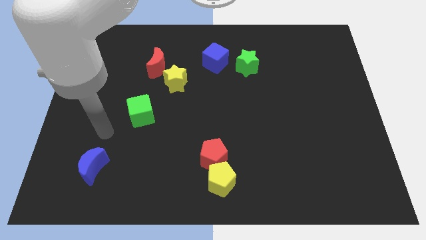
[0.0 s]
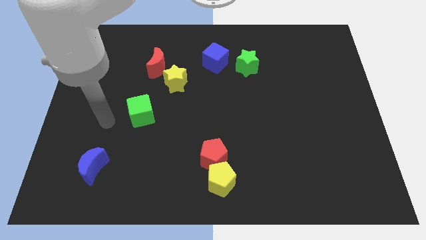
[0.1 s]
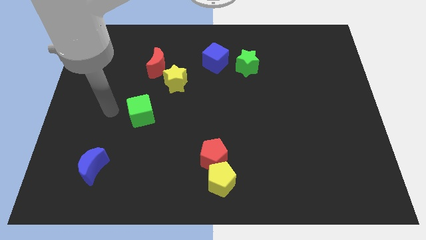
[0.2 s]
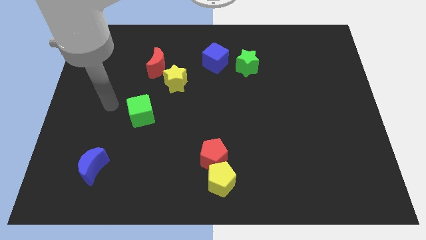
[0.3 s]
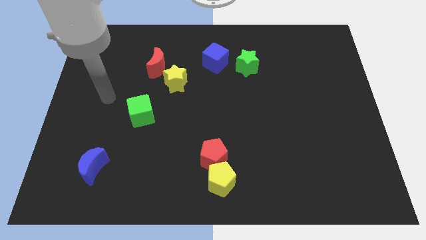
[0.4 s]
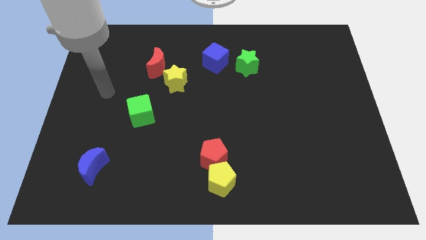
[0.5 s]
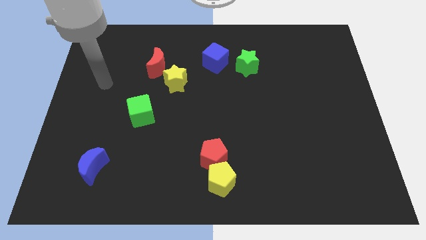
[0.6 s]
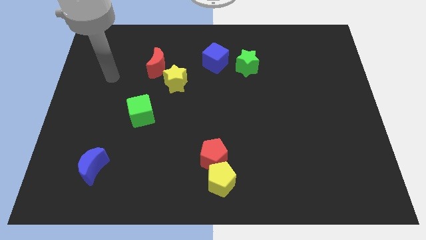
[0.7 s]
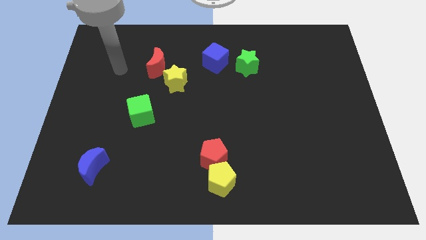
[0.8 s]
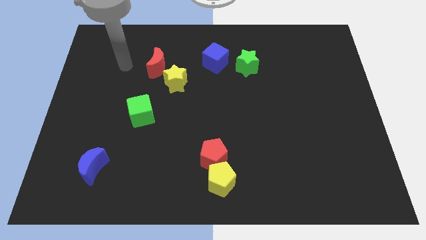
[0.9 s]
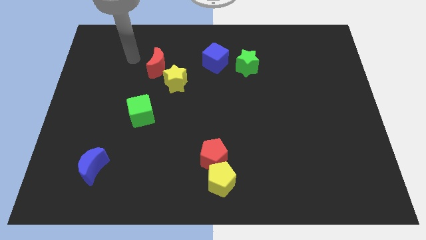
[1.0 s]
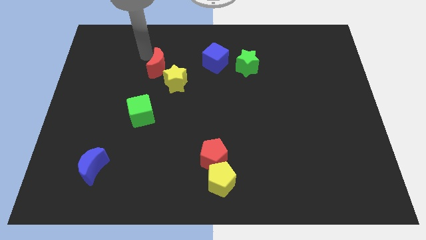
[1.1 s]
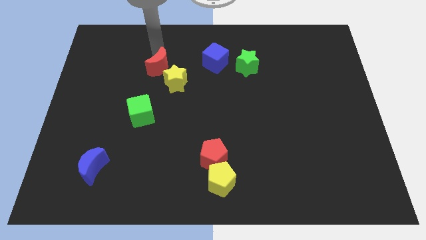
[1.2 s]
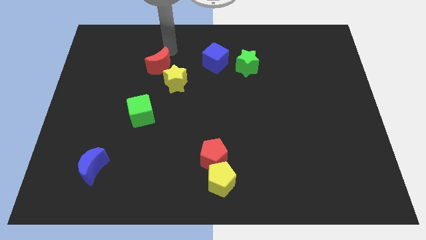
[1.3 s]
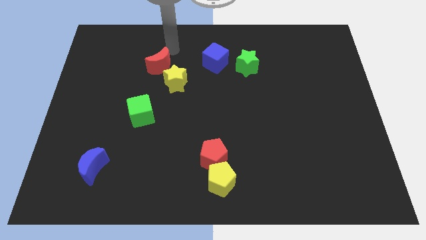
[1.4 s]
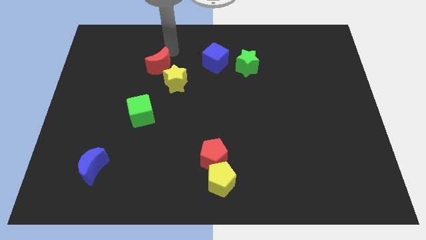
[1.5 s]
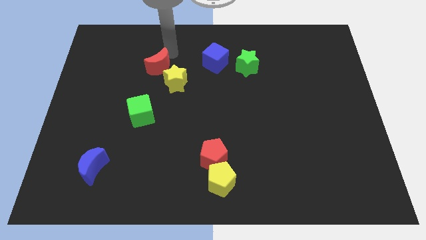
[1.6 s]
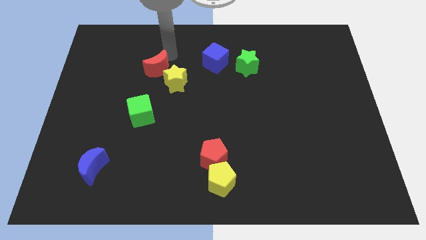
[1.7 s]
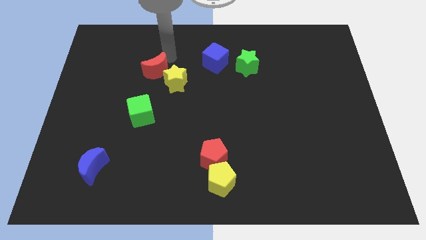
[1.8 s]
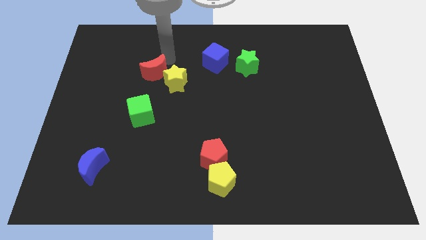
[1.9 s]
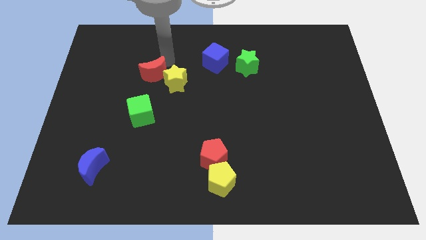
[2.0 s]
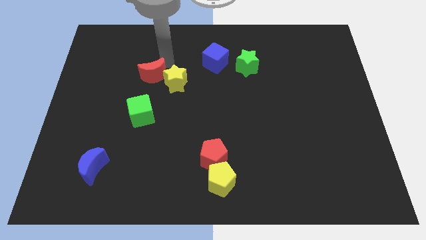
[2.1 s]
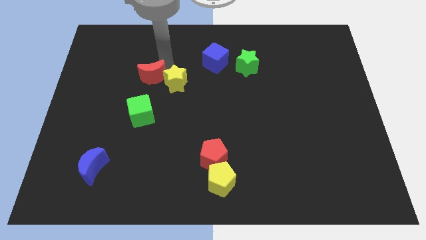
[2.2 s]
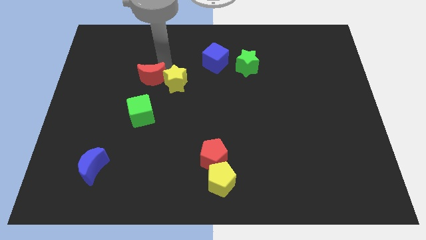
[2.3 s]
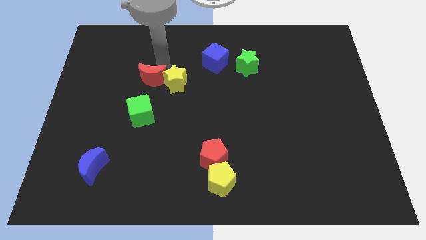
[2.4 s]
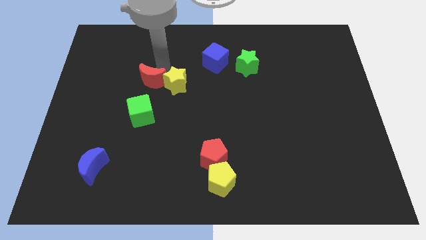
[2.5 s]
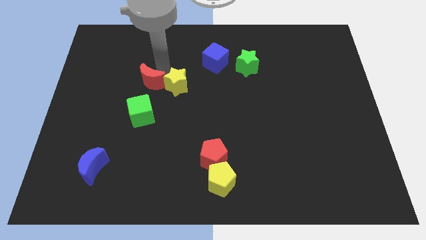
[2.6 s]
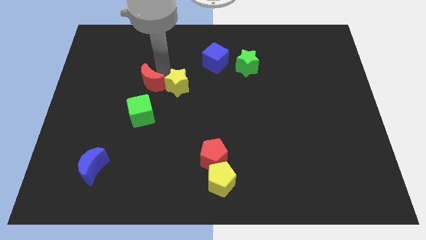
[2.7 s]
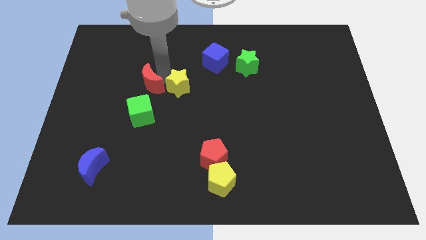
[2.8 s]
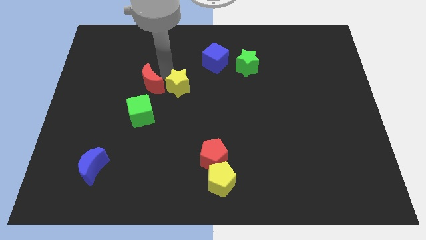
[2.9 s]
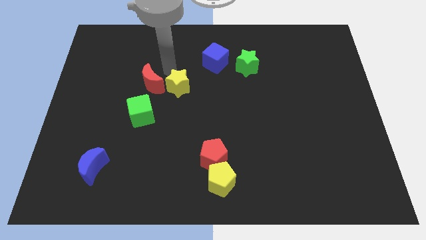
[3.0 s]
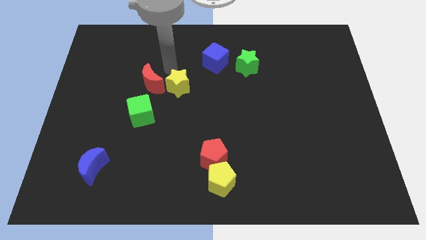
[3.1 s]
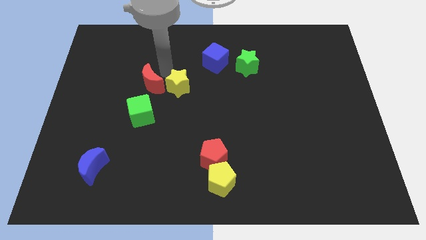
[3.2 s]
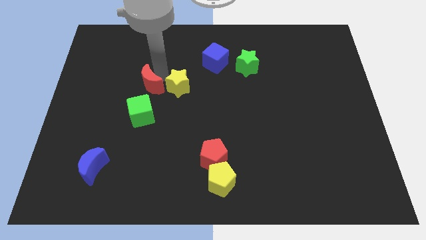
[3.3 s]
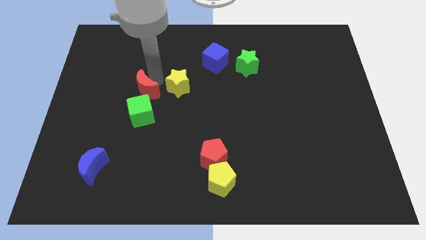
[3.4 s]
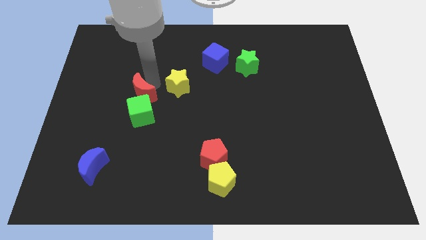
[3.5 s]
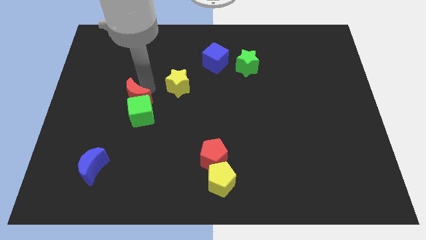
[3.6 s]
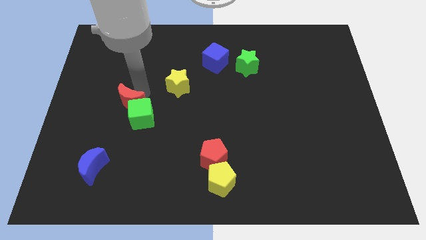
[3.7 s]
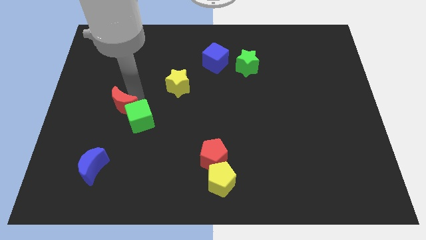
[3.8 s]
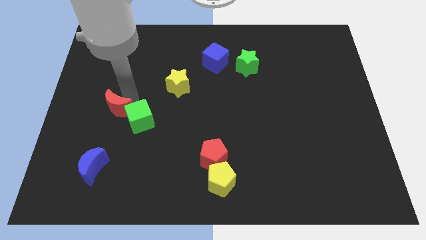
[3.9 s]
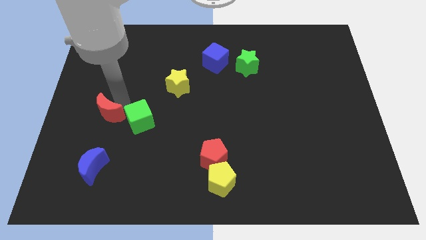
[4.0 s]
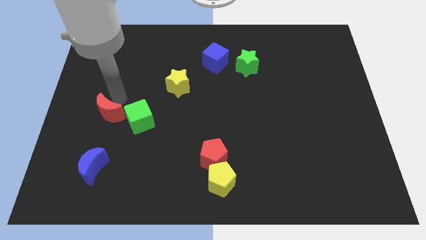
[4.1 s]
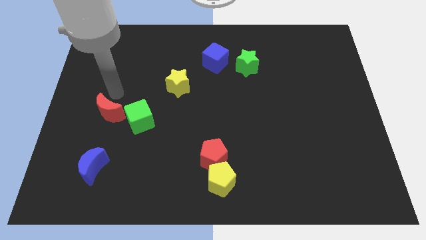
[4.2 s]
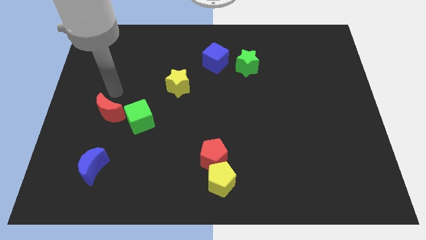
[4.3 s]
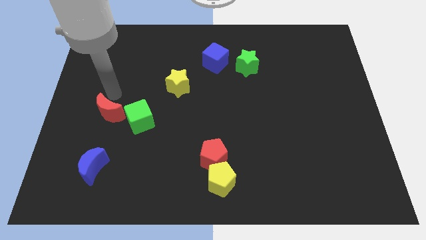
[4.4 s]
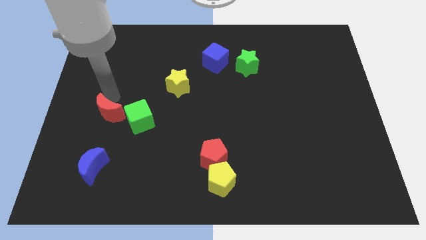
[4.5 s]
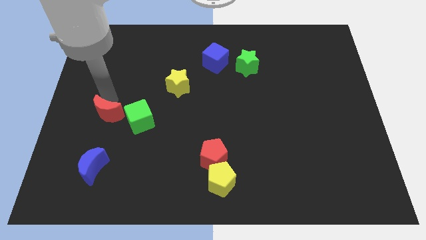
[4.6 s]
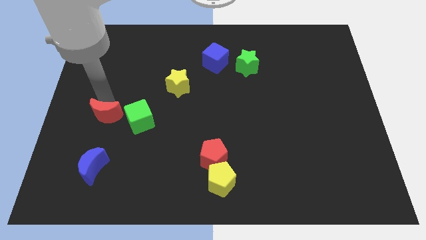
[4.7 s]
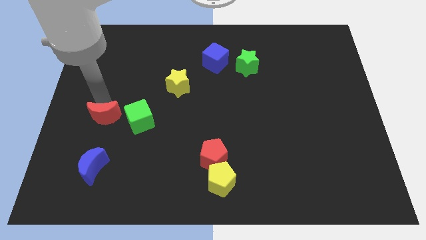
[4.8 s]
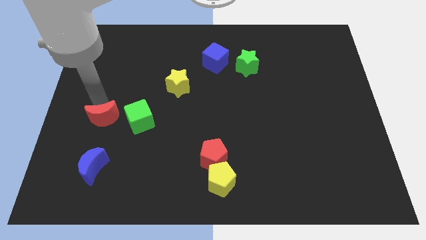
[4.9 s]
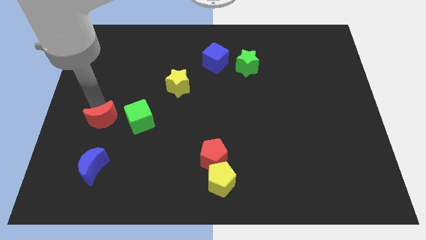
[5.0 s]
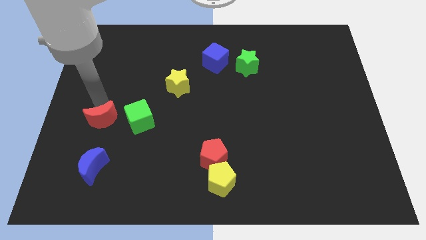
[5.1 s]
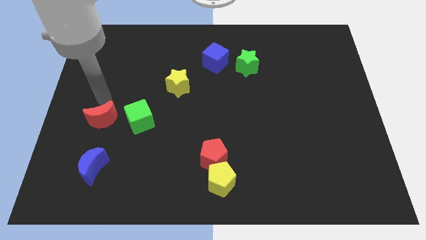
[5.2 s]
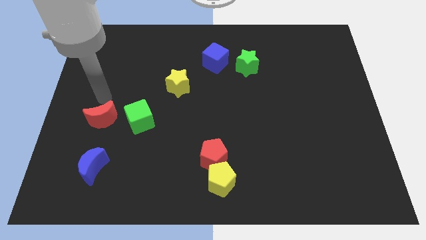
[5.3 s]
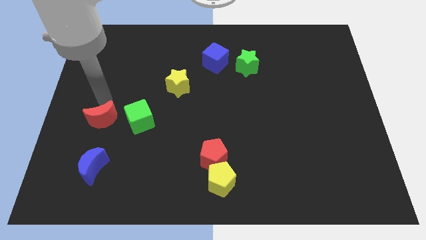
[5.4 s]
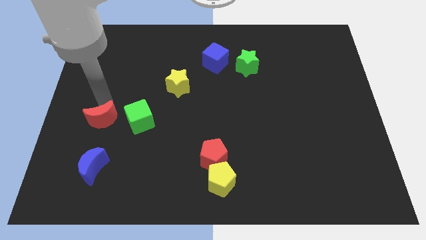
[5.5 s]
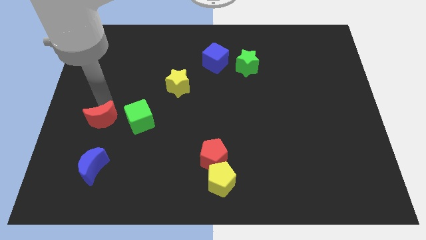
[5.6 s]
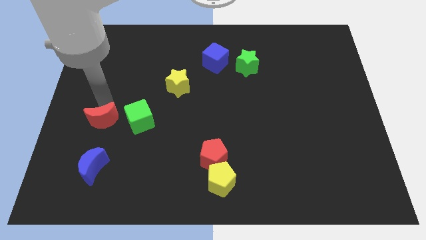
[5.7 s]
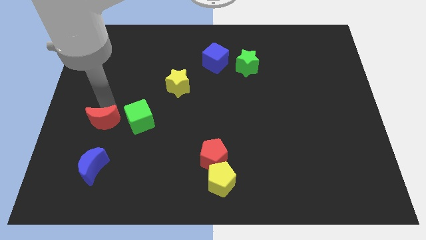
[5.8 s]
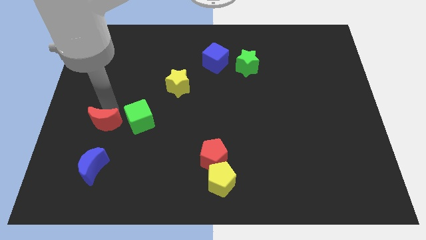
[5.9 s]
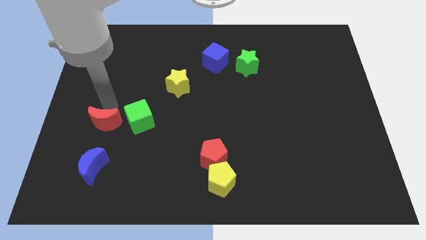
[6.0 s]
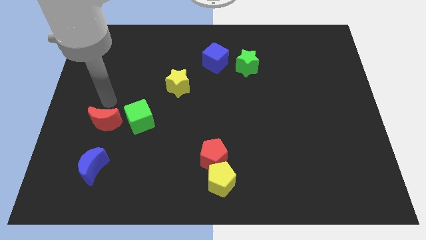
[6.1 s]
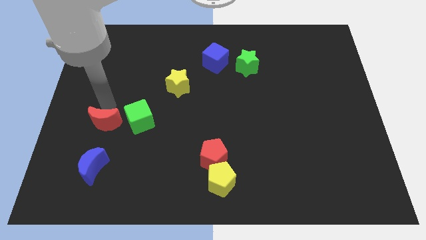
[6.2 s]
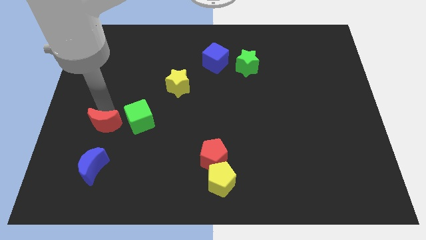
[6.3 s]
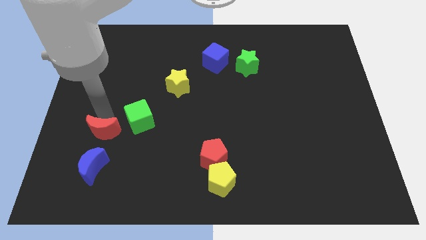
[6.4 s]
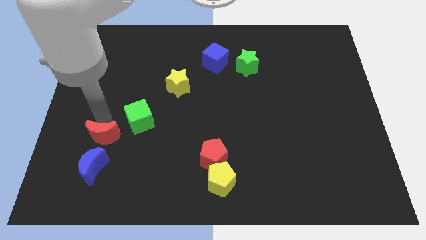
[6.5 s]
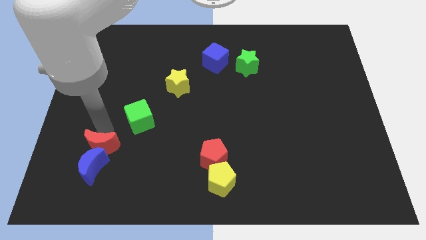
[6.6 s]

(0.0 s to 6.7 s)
move the red moon next to the blue moon
